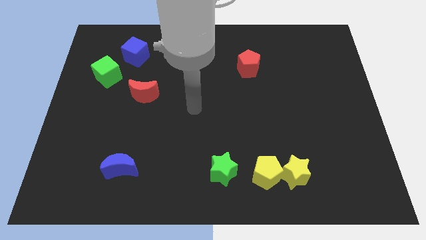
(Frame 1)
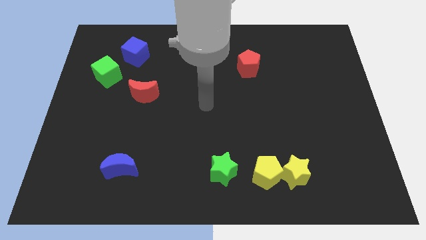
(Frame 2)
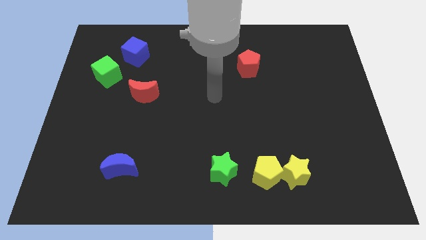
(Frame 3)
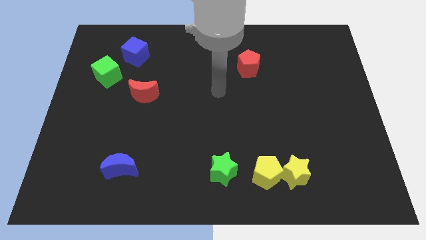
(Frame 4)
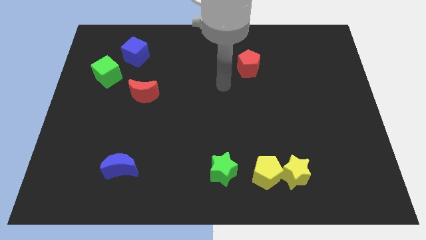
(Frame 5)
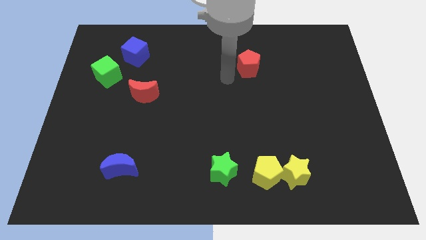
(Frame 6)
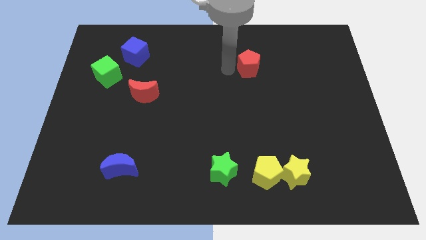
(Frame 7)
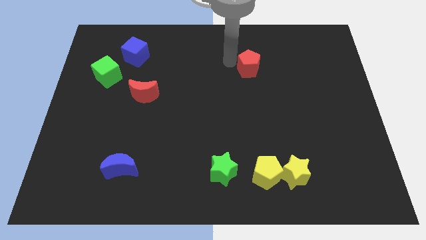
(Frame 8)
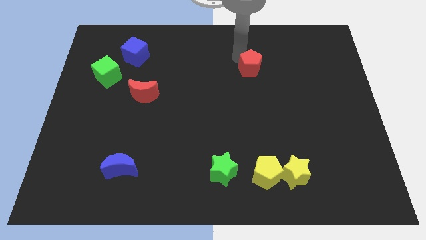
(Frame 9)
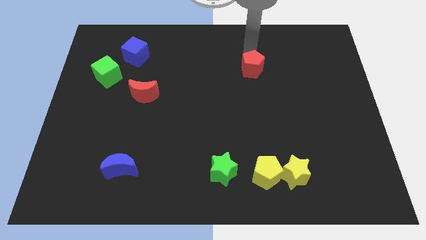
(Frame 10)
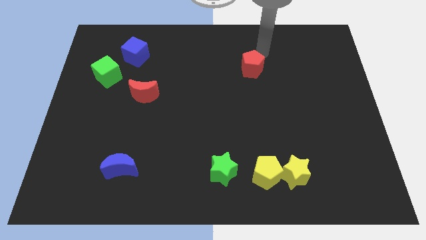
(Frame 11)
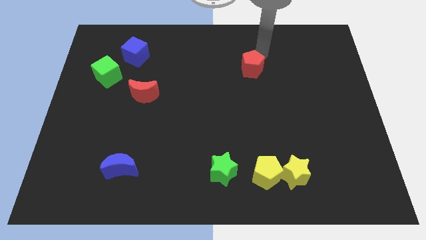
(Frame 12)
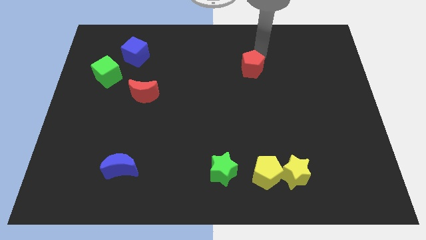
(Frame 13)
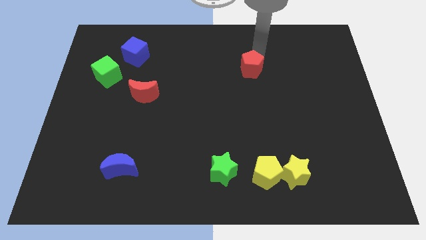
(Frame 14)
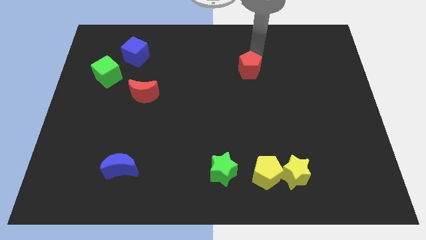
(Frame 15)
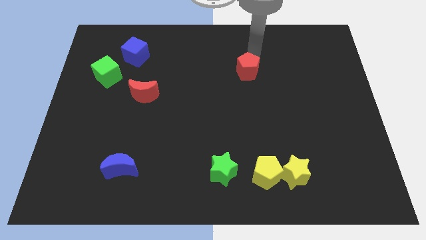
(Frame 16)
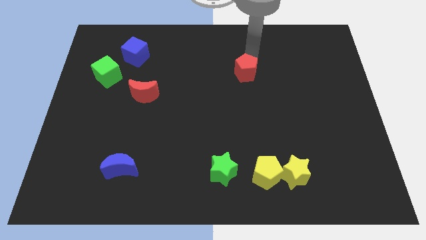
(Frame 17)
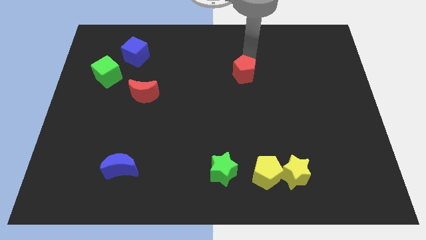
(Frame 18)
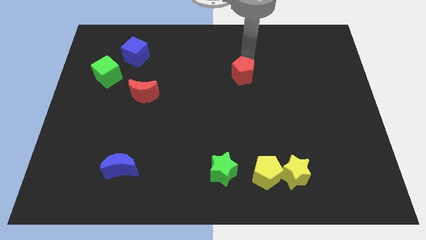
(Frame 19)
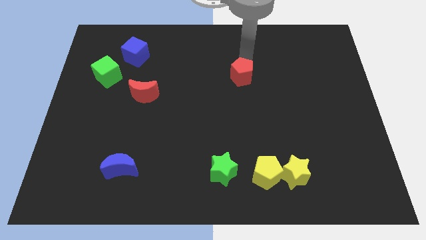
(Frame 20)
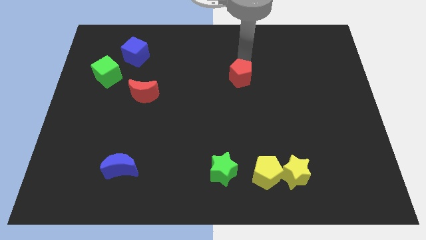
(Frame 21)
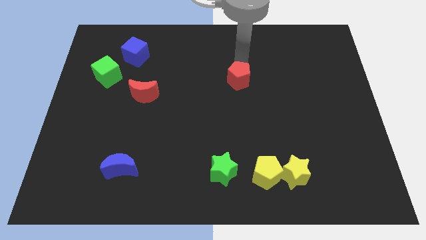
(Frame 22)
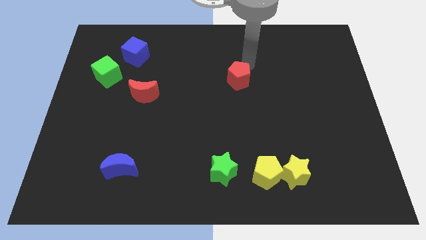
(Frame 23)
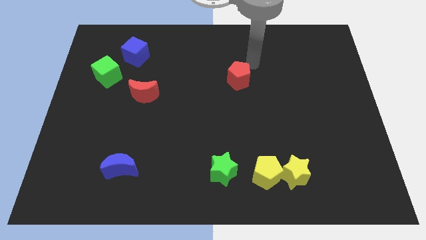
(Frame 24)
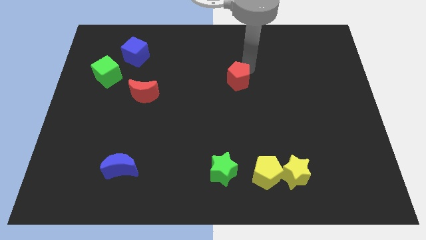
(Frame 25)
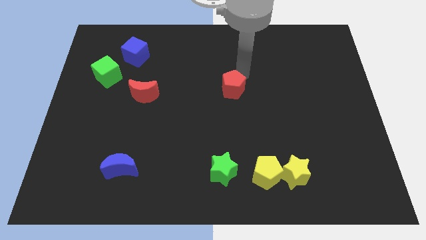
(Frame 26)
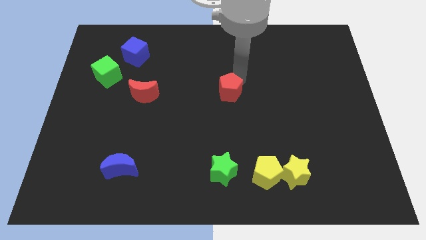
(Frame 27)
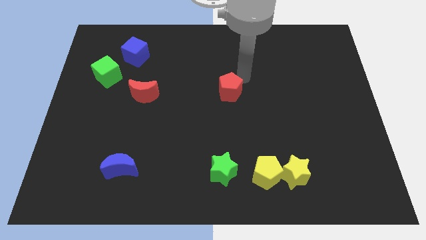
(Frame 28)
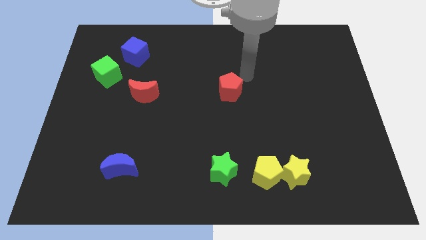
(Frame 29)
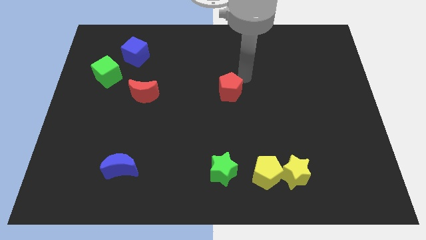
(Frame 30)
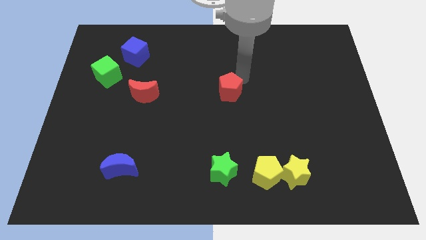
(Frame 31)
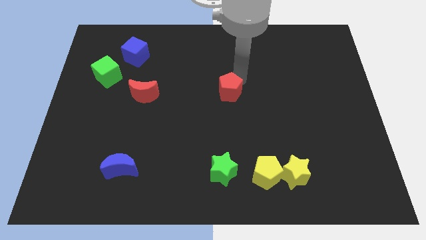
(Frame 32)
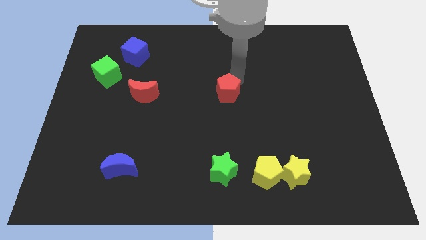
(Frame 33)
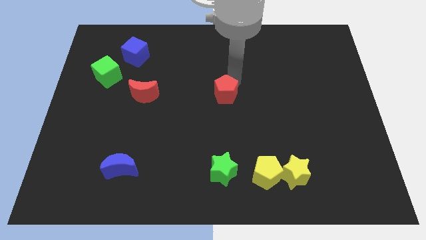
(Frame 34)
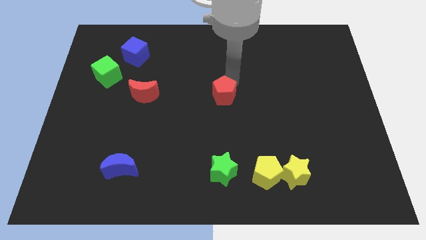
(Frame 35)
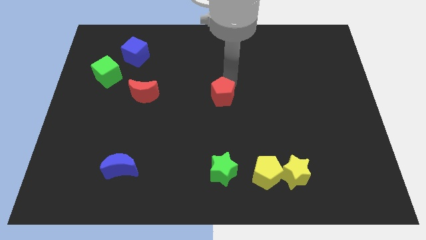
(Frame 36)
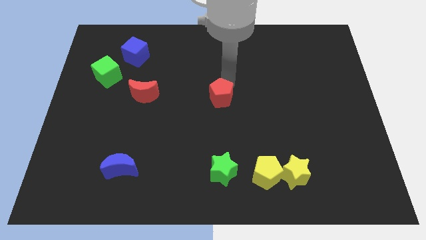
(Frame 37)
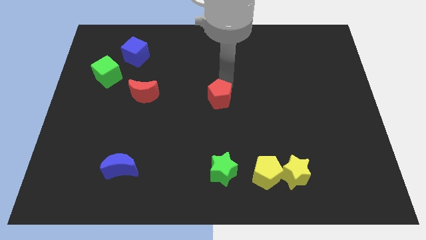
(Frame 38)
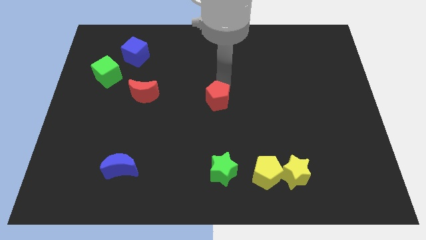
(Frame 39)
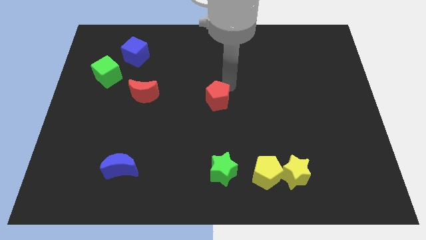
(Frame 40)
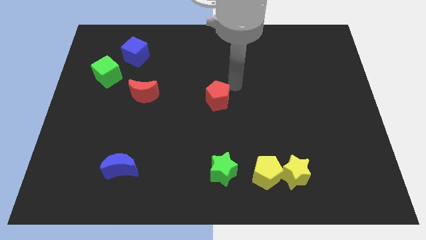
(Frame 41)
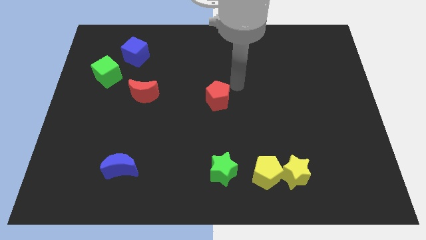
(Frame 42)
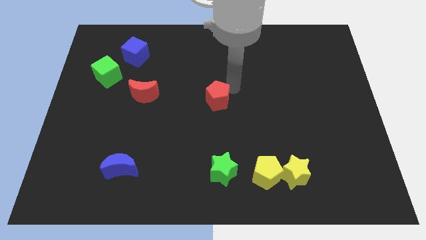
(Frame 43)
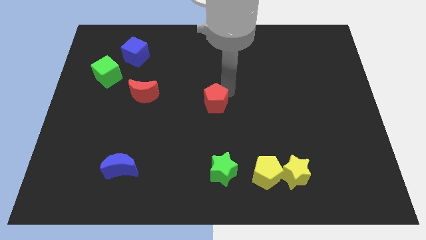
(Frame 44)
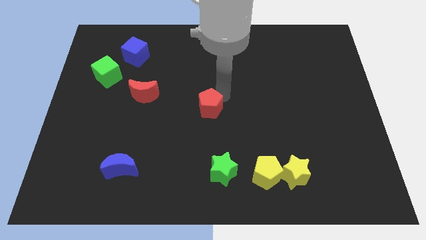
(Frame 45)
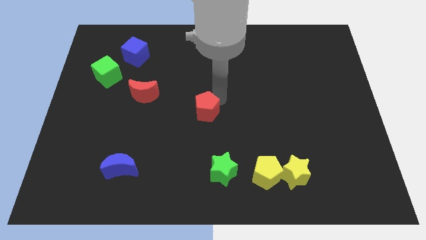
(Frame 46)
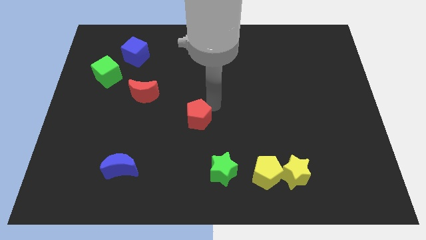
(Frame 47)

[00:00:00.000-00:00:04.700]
move the red pentagon downwards and then left

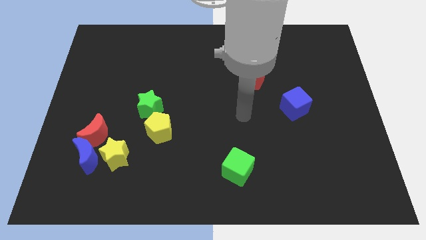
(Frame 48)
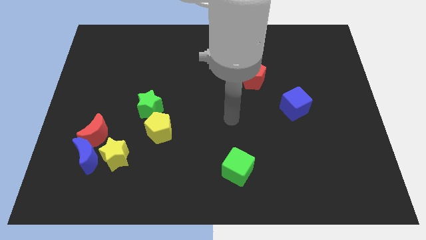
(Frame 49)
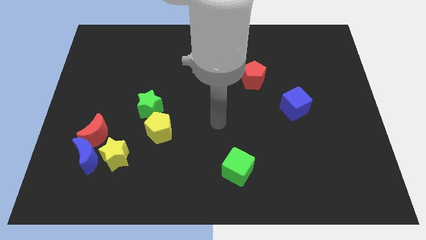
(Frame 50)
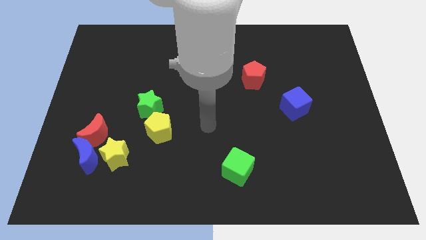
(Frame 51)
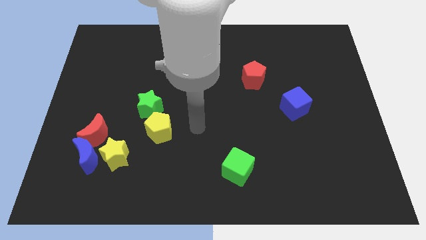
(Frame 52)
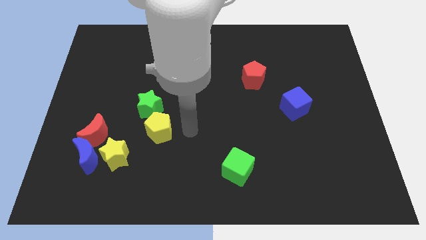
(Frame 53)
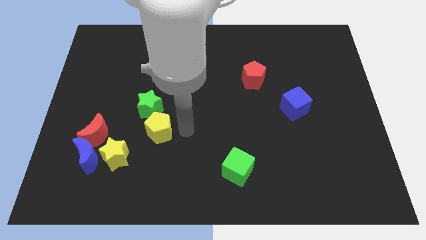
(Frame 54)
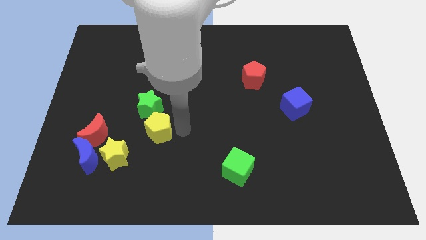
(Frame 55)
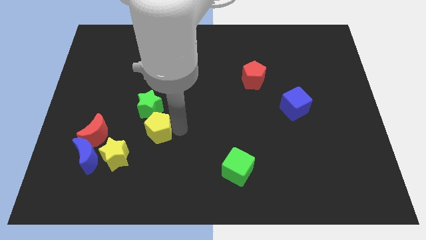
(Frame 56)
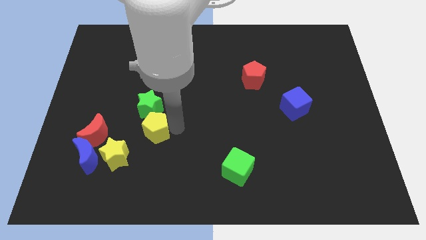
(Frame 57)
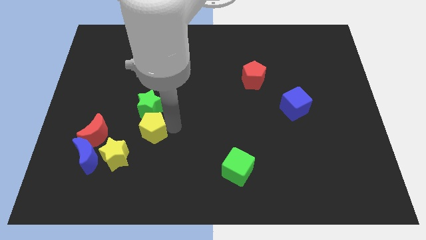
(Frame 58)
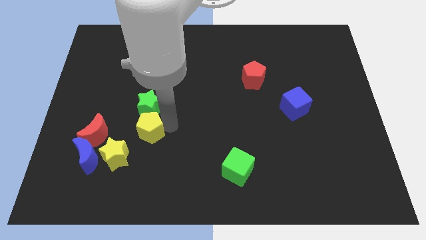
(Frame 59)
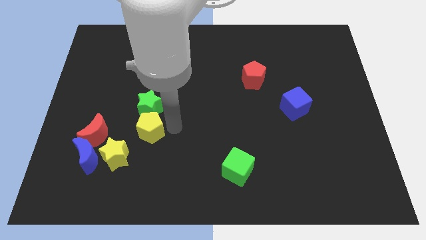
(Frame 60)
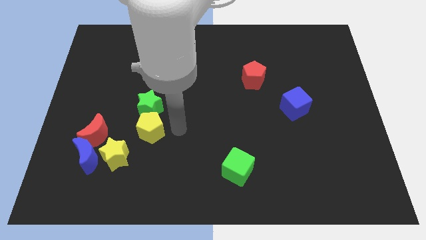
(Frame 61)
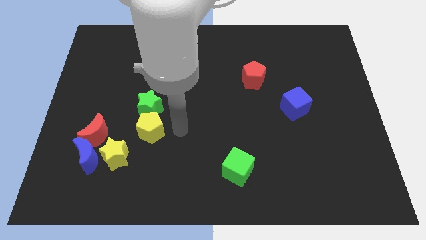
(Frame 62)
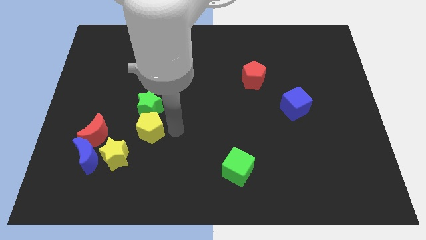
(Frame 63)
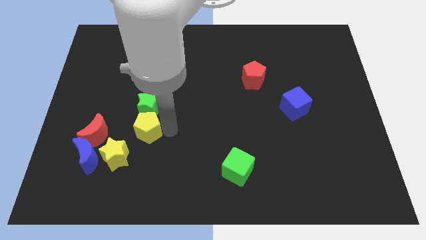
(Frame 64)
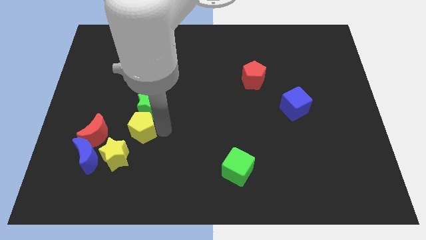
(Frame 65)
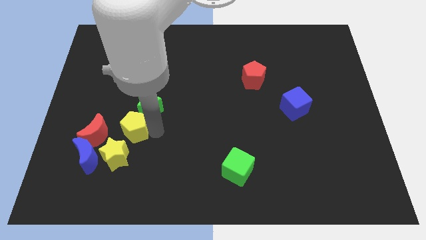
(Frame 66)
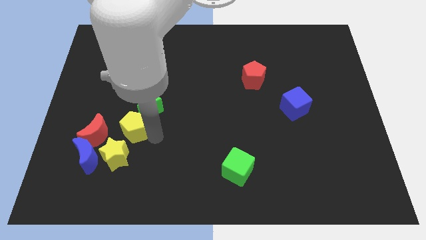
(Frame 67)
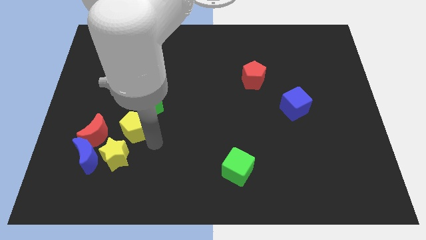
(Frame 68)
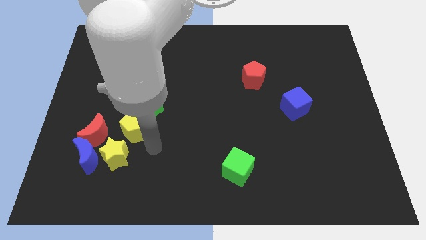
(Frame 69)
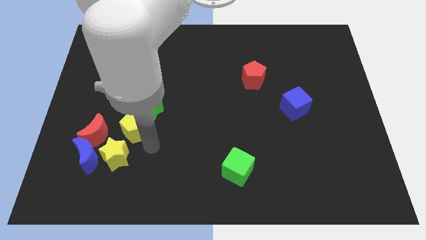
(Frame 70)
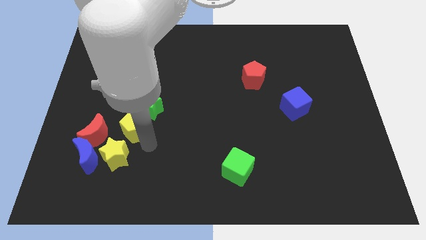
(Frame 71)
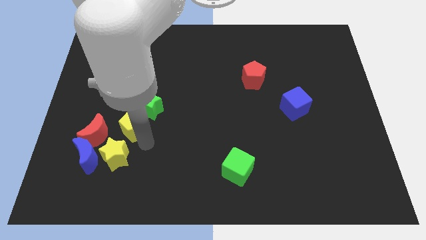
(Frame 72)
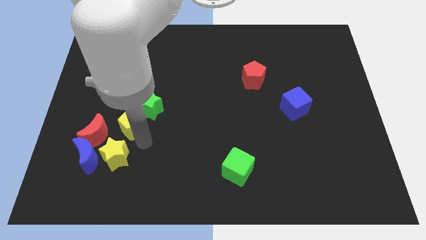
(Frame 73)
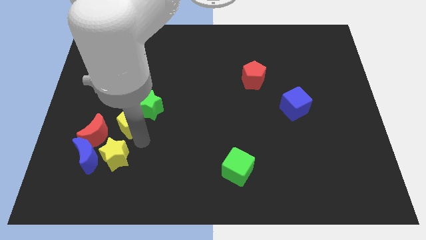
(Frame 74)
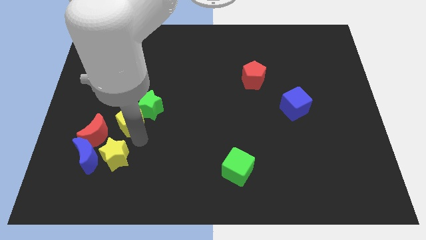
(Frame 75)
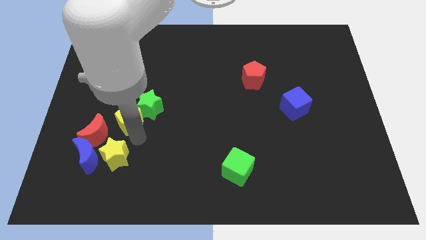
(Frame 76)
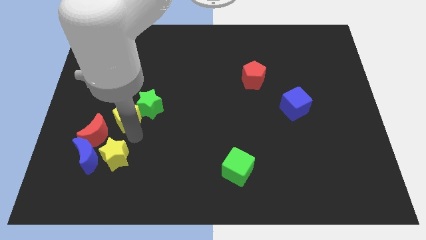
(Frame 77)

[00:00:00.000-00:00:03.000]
push the yellow pentagon slightly upwards and then left

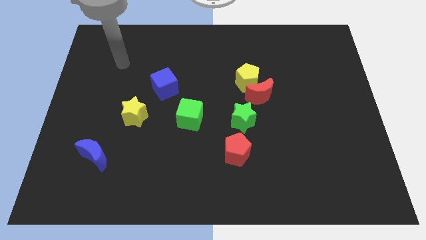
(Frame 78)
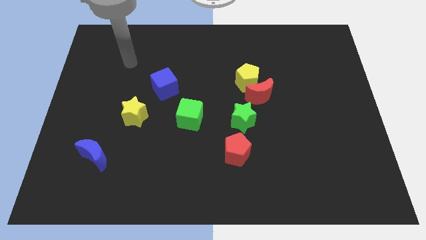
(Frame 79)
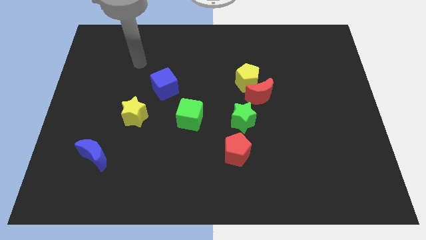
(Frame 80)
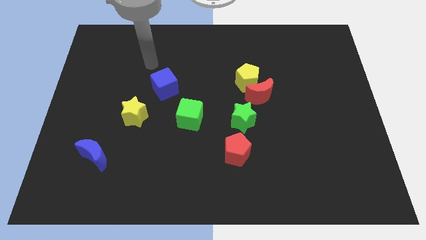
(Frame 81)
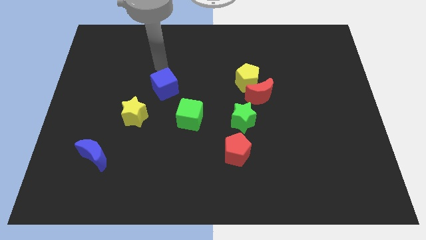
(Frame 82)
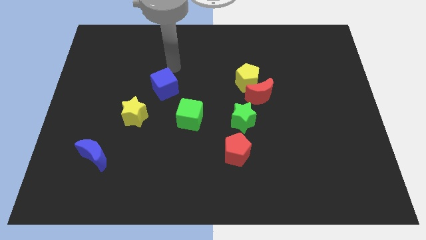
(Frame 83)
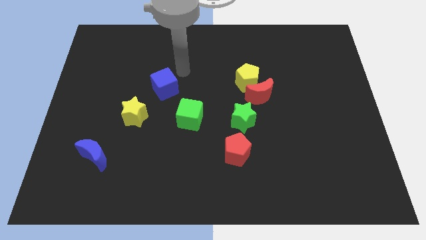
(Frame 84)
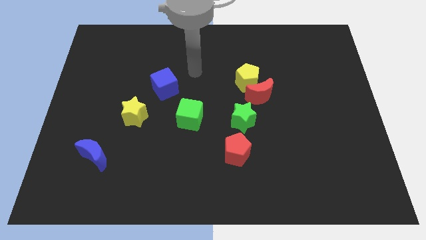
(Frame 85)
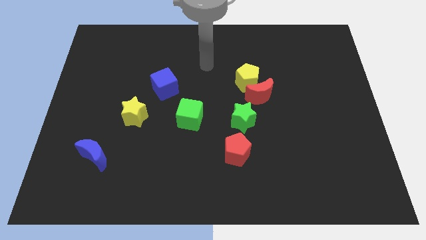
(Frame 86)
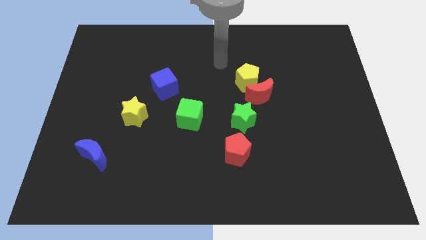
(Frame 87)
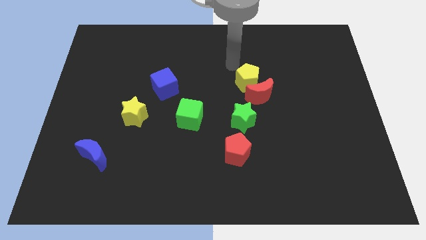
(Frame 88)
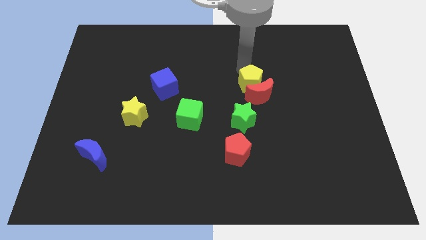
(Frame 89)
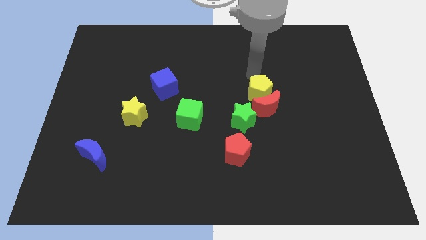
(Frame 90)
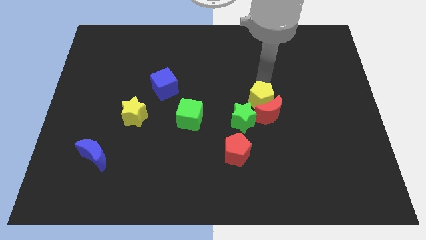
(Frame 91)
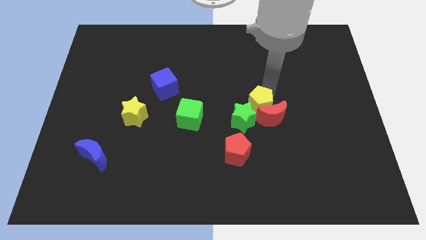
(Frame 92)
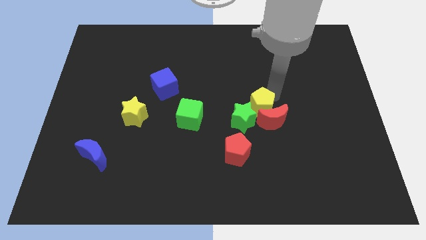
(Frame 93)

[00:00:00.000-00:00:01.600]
slightly slide the red moon downwards
